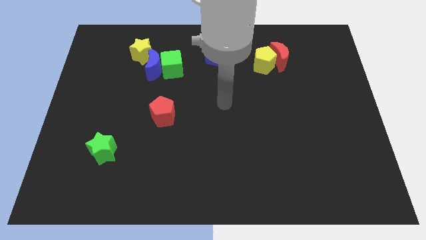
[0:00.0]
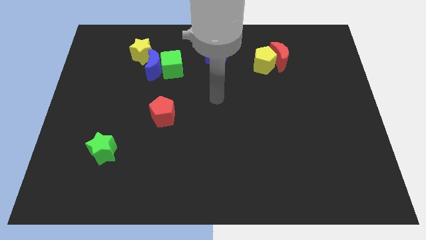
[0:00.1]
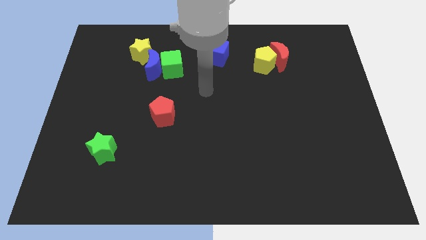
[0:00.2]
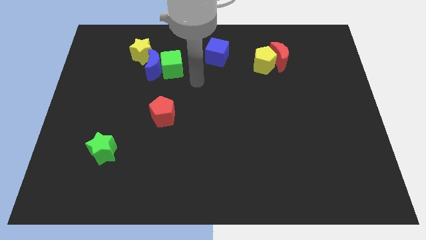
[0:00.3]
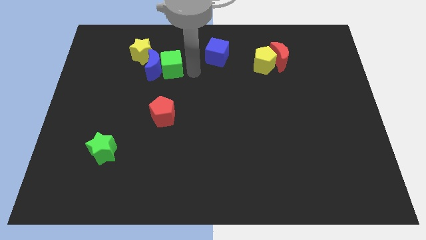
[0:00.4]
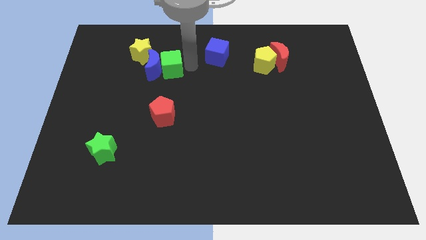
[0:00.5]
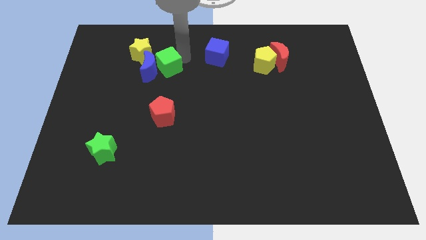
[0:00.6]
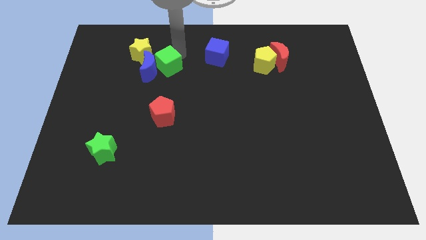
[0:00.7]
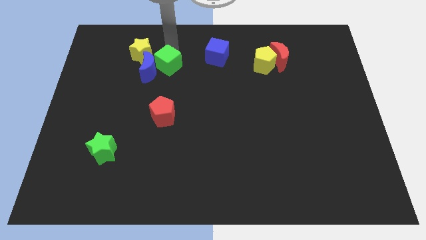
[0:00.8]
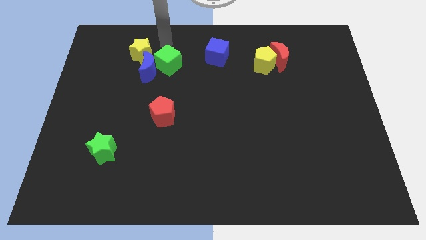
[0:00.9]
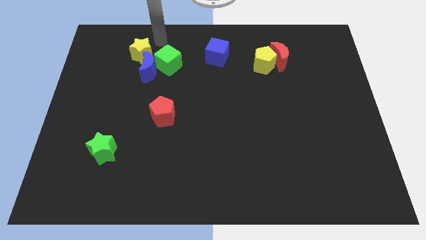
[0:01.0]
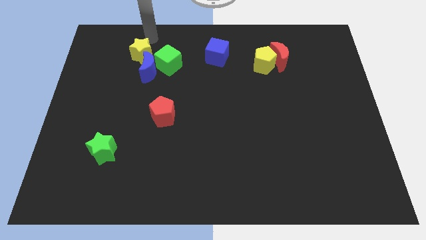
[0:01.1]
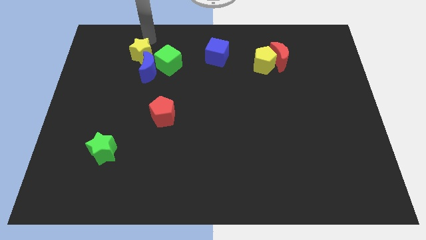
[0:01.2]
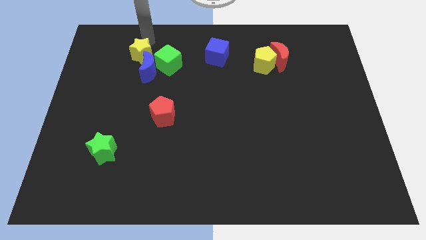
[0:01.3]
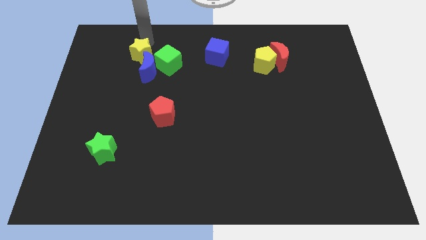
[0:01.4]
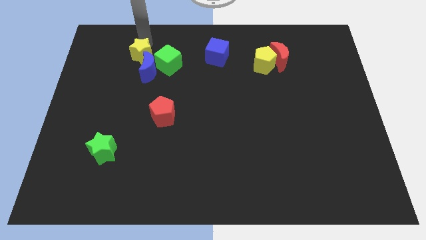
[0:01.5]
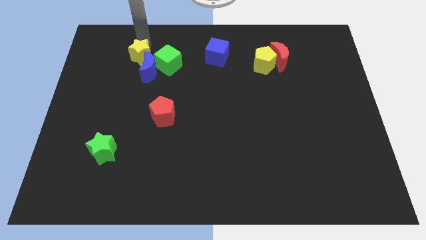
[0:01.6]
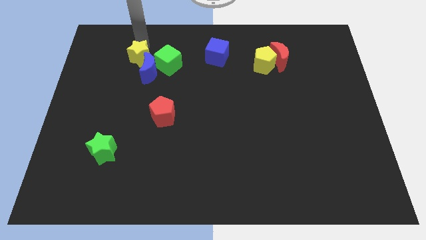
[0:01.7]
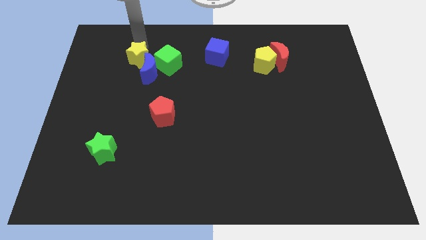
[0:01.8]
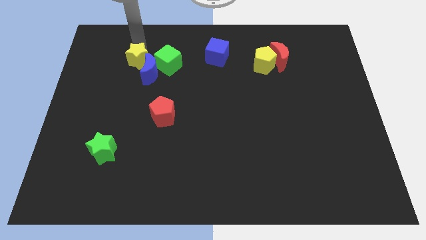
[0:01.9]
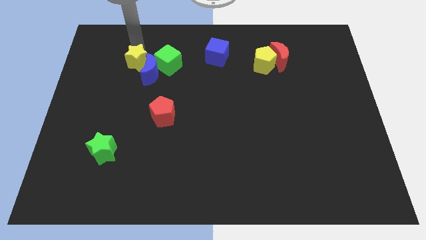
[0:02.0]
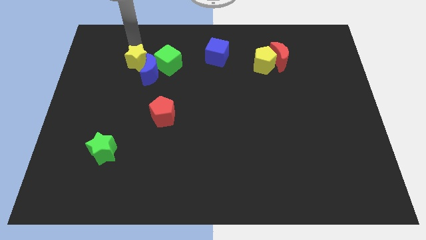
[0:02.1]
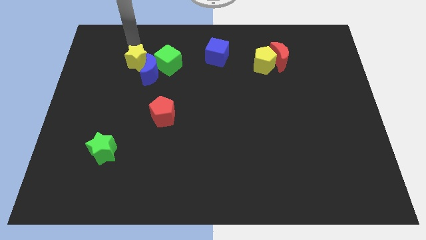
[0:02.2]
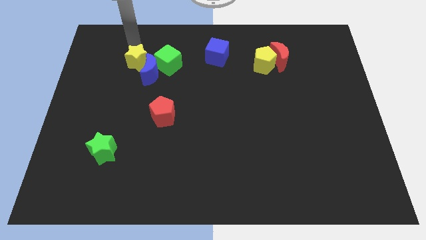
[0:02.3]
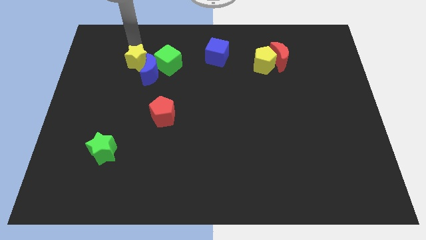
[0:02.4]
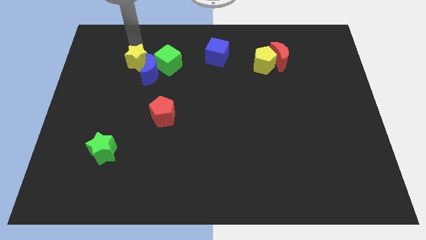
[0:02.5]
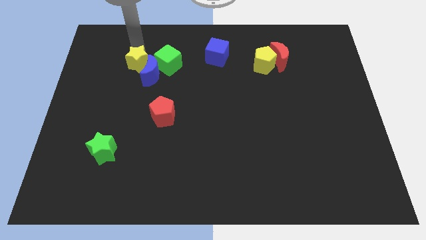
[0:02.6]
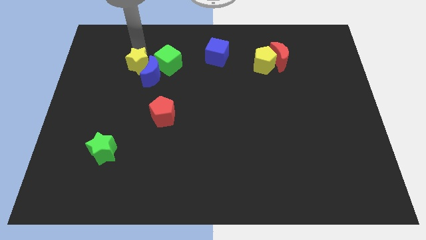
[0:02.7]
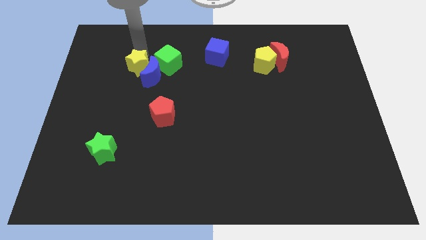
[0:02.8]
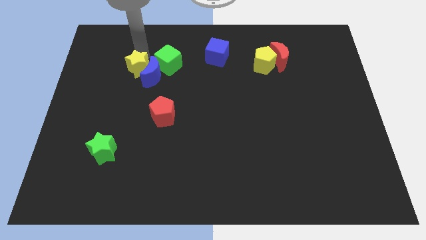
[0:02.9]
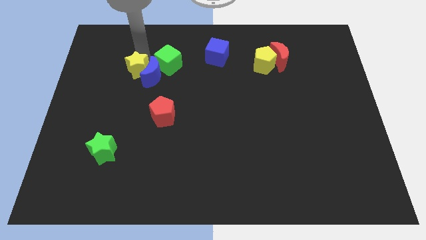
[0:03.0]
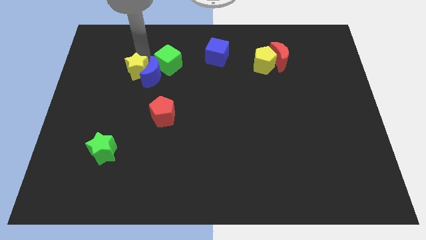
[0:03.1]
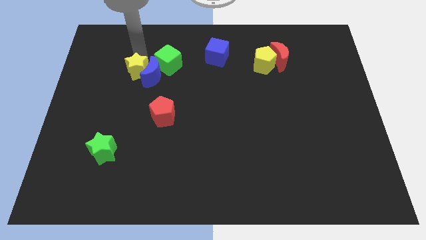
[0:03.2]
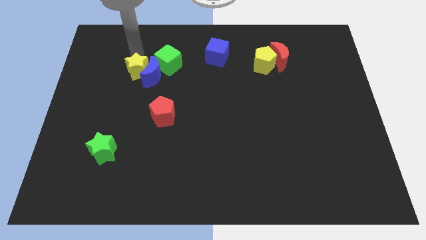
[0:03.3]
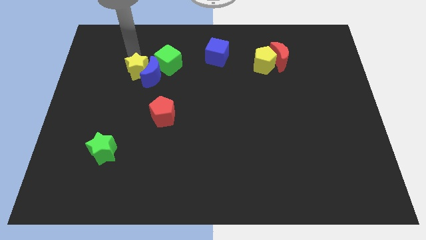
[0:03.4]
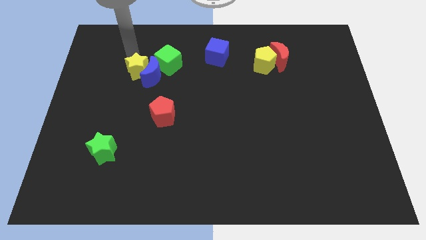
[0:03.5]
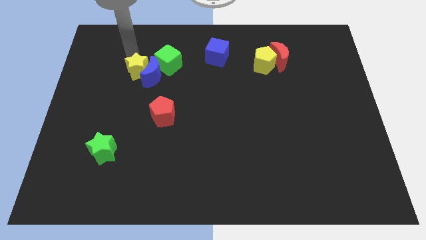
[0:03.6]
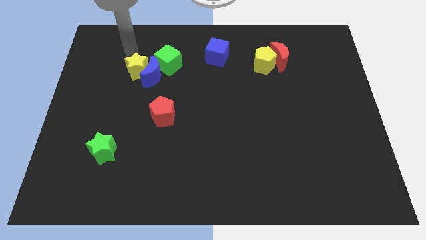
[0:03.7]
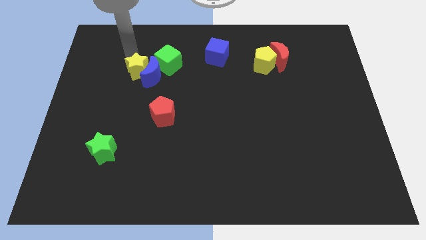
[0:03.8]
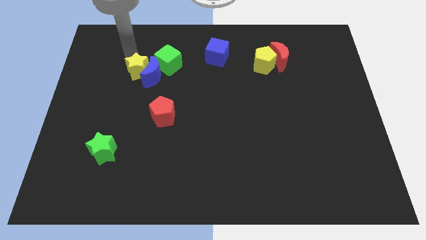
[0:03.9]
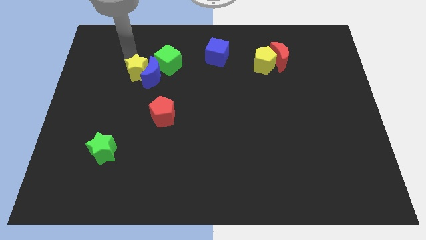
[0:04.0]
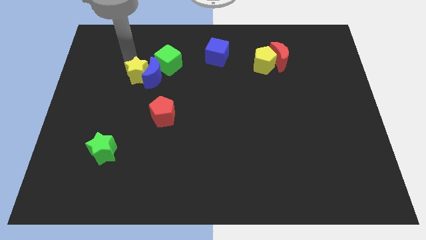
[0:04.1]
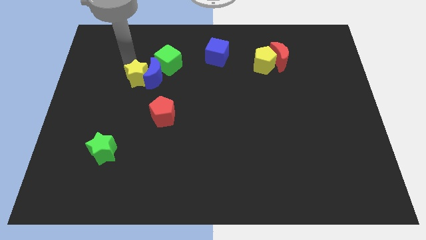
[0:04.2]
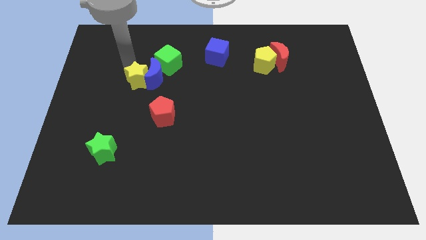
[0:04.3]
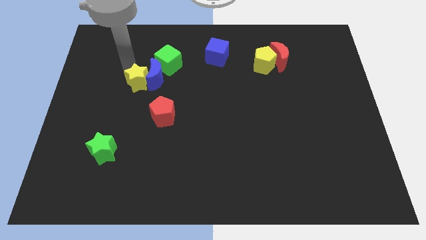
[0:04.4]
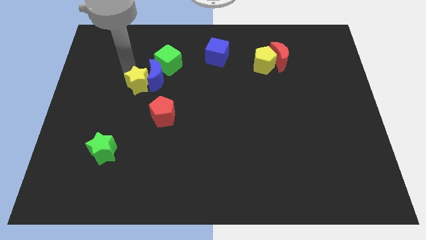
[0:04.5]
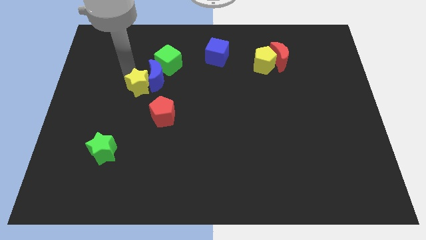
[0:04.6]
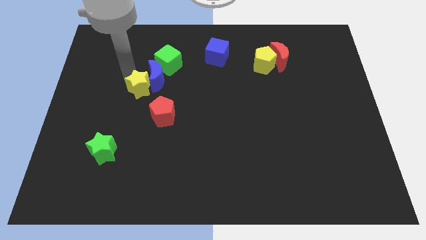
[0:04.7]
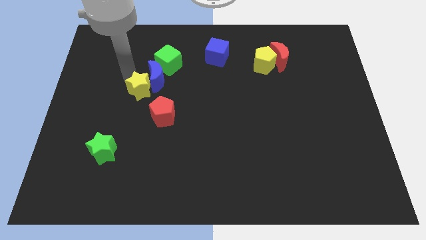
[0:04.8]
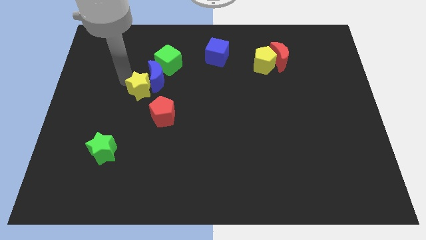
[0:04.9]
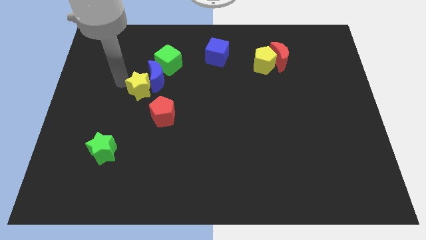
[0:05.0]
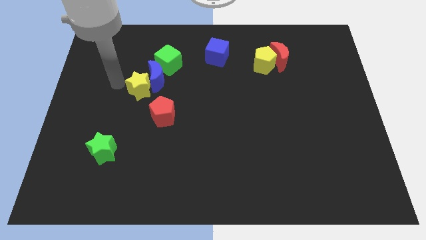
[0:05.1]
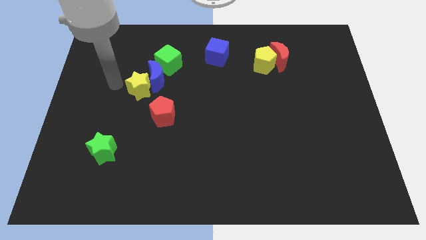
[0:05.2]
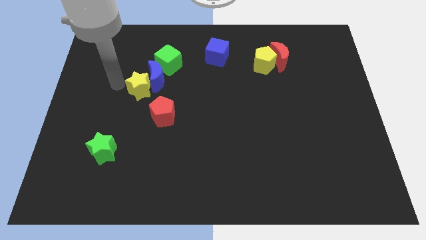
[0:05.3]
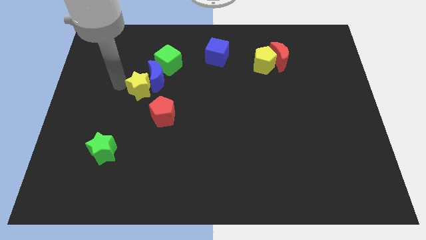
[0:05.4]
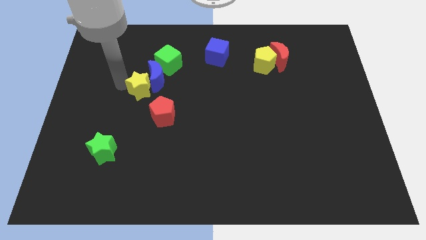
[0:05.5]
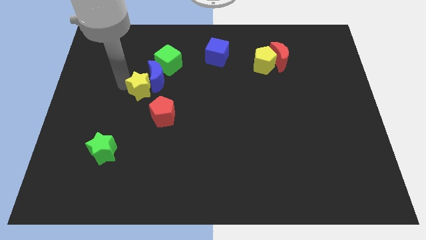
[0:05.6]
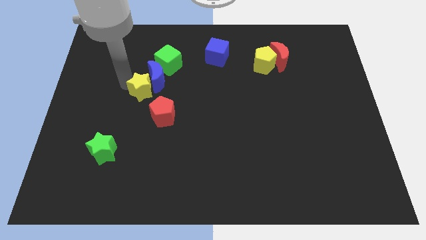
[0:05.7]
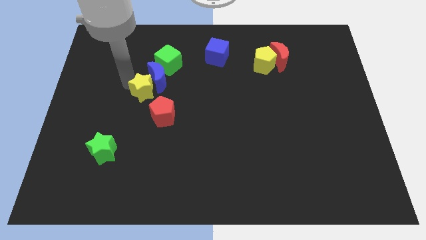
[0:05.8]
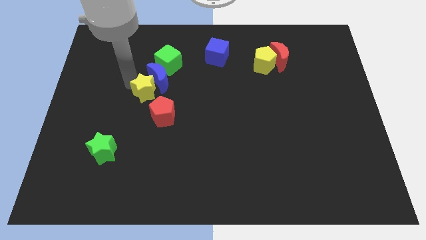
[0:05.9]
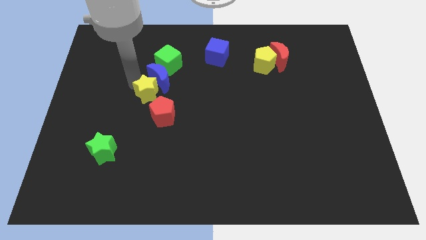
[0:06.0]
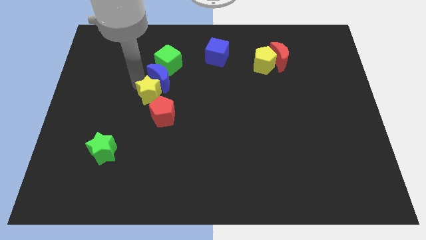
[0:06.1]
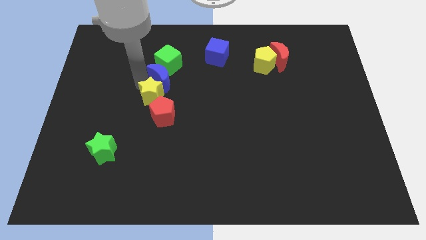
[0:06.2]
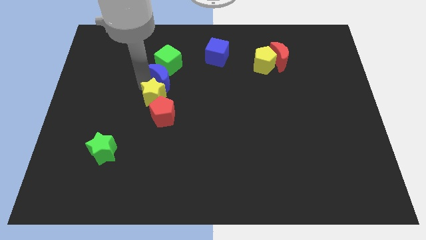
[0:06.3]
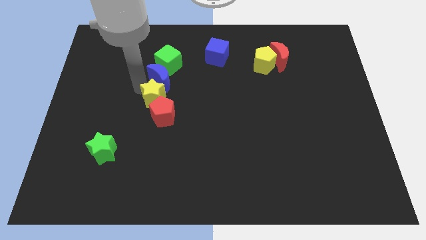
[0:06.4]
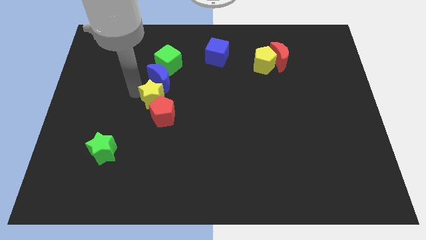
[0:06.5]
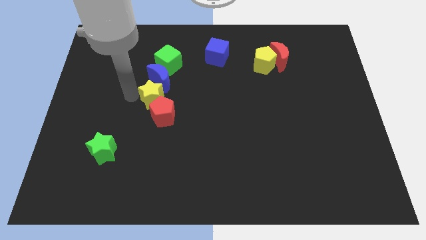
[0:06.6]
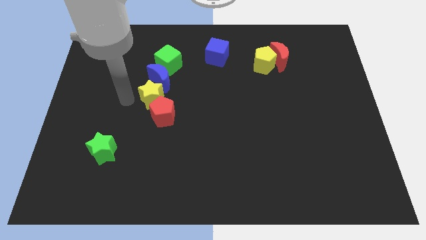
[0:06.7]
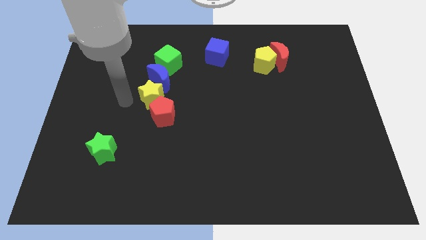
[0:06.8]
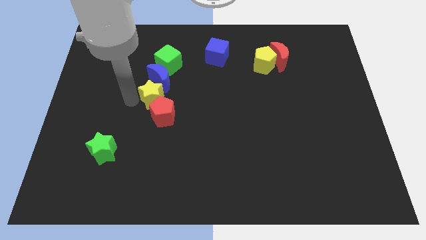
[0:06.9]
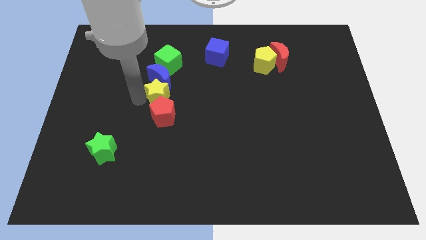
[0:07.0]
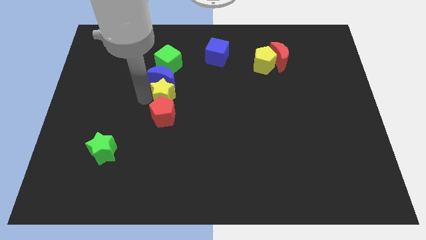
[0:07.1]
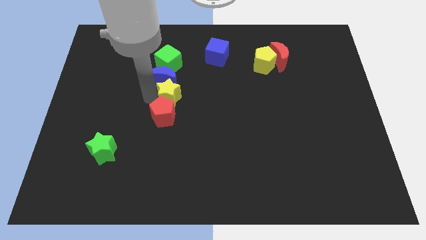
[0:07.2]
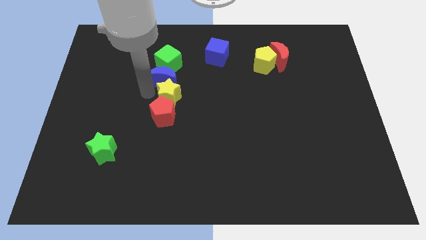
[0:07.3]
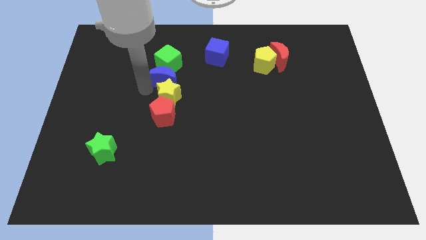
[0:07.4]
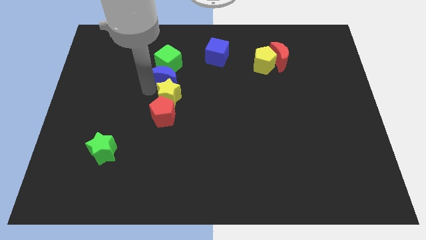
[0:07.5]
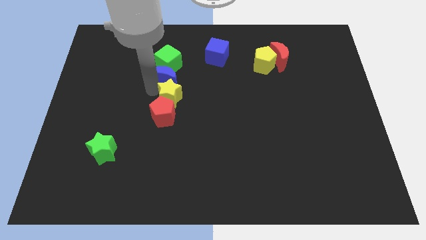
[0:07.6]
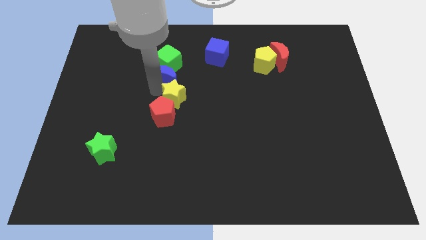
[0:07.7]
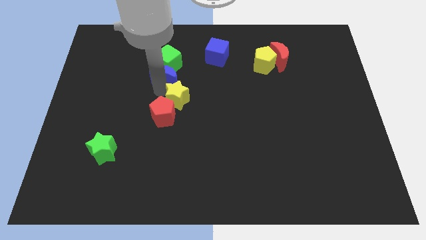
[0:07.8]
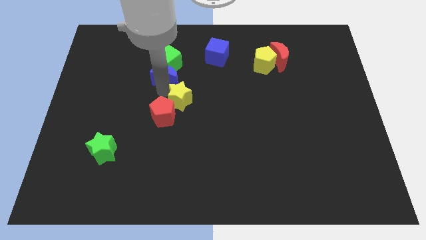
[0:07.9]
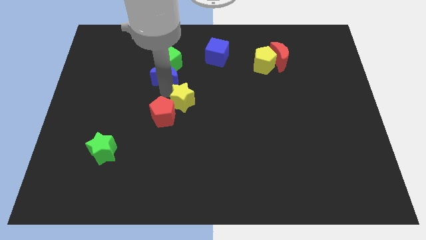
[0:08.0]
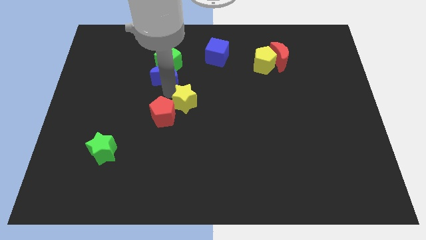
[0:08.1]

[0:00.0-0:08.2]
push the yellow star down and to the right
